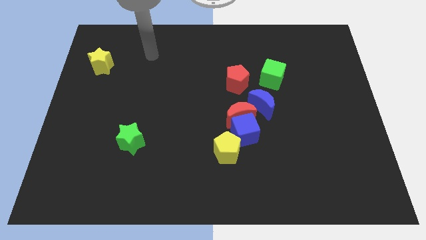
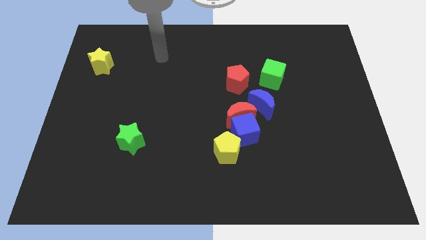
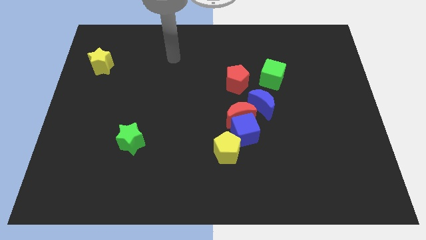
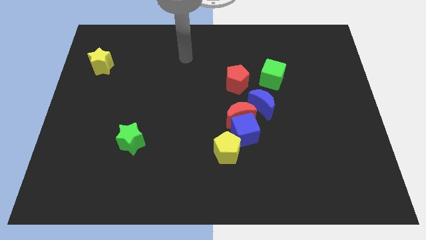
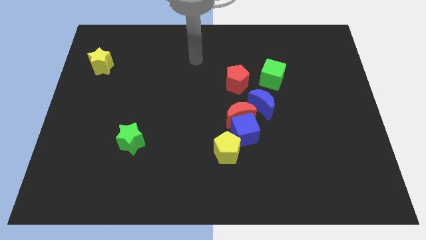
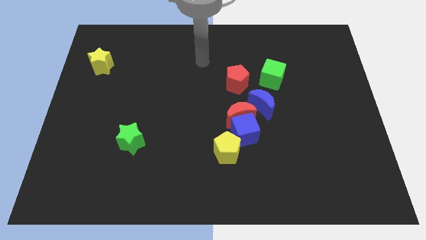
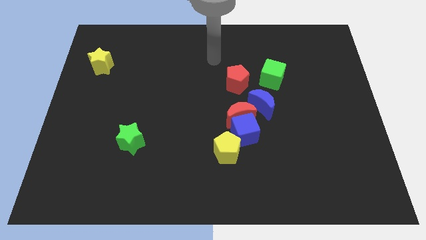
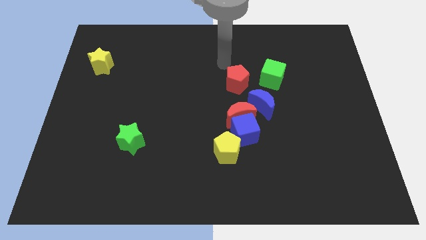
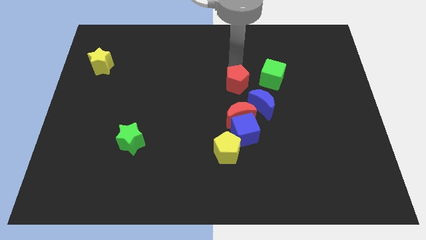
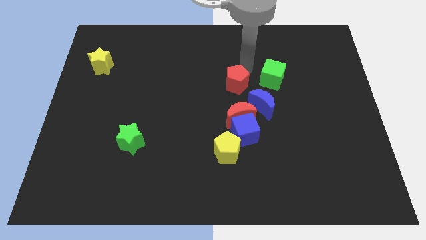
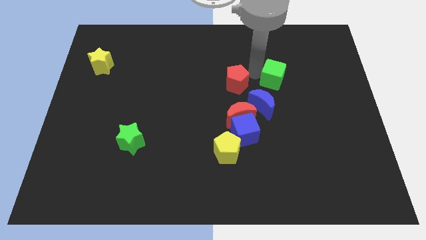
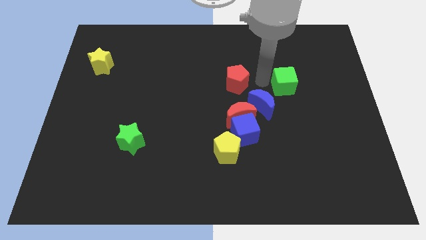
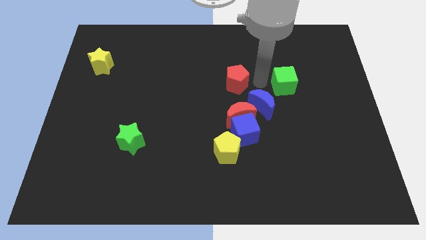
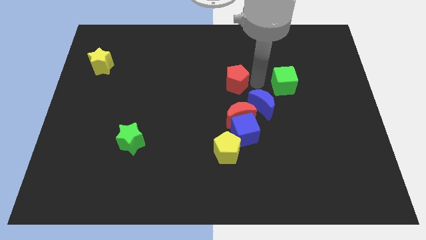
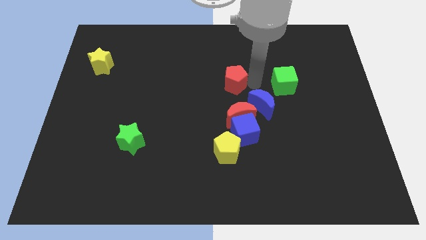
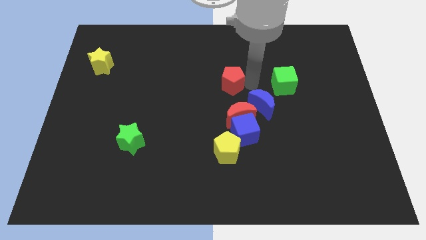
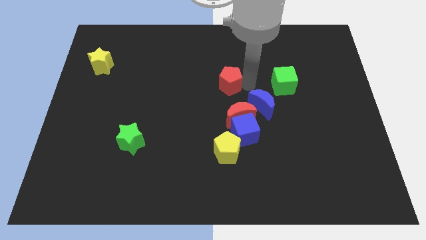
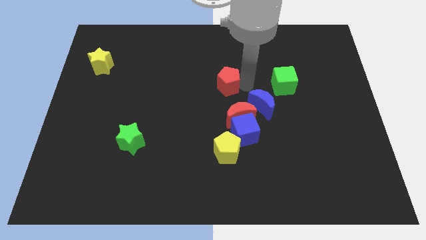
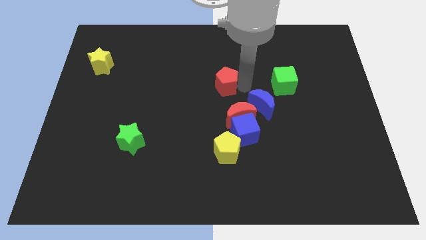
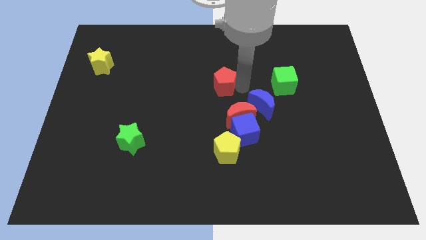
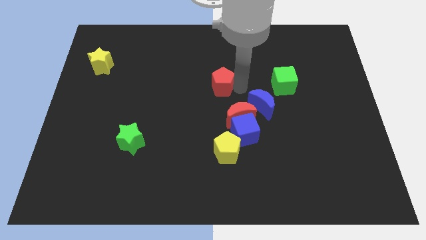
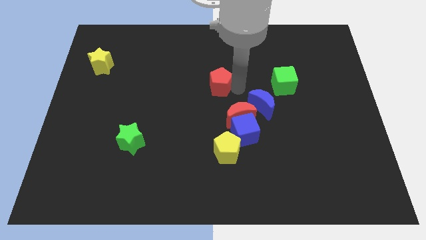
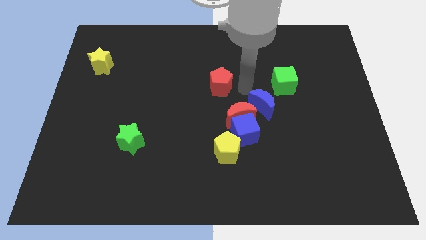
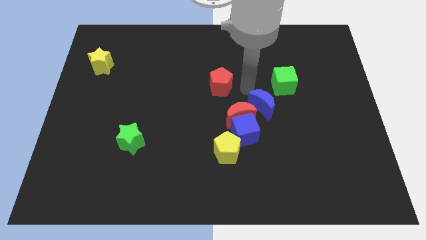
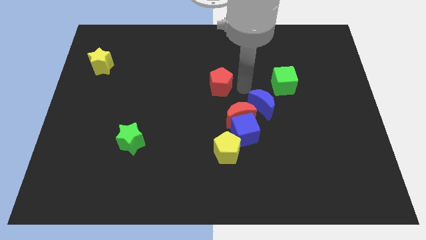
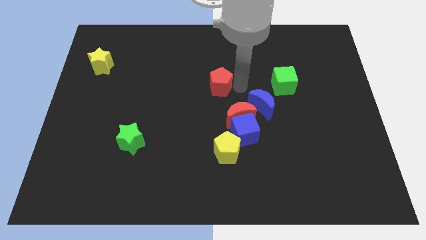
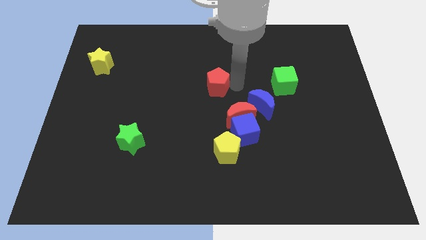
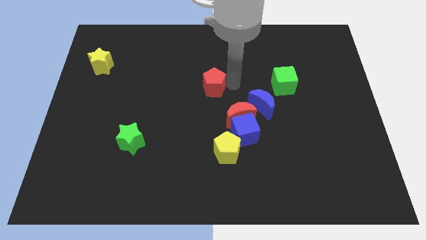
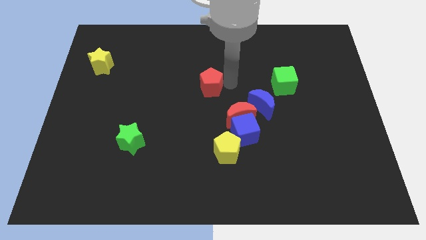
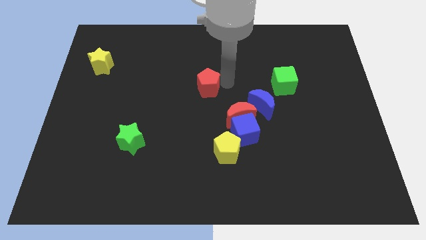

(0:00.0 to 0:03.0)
push the red pentagon a little bit to the left

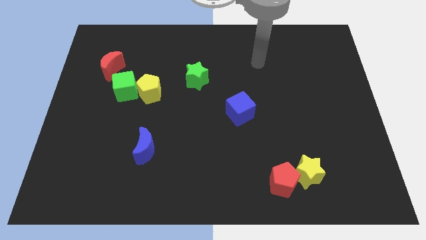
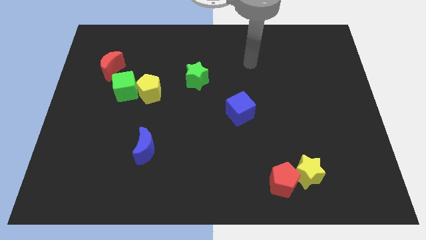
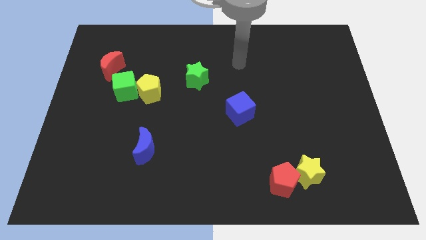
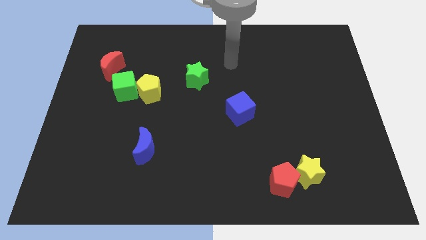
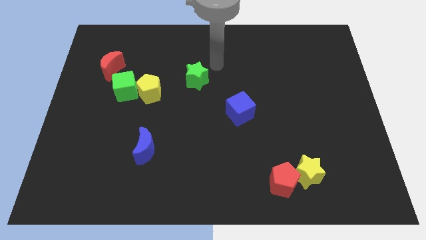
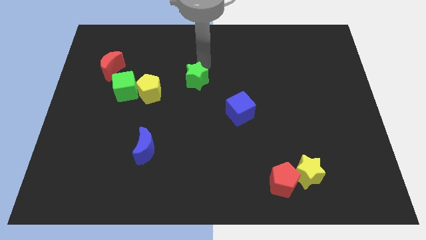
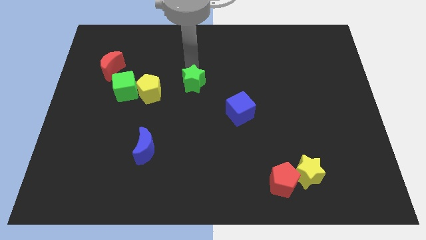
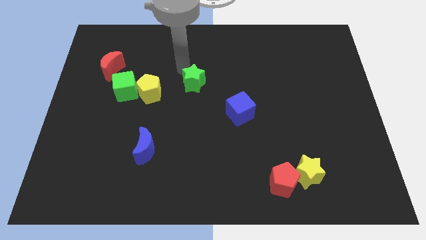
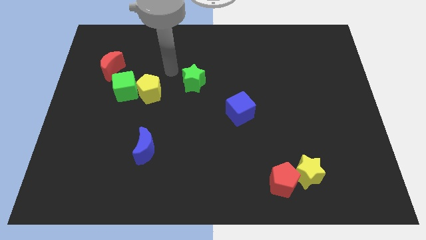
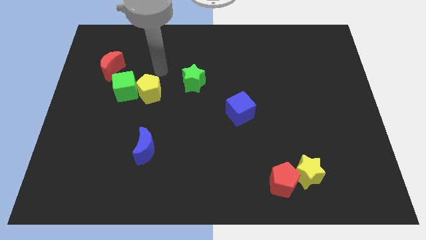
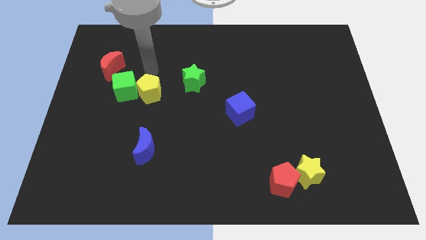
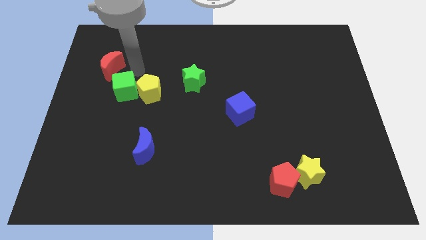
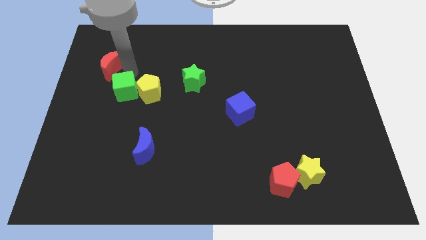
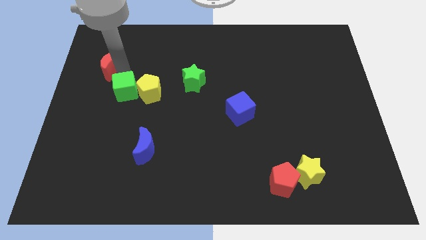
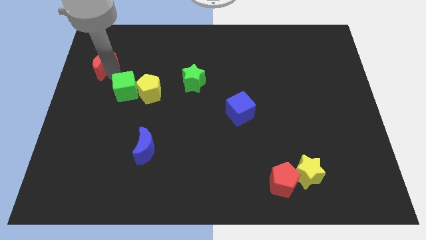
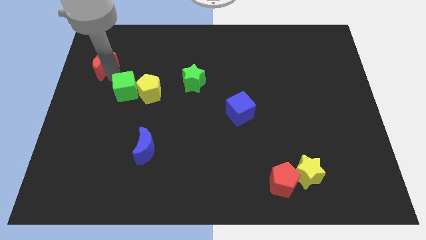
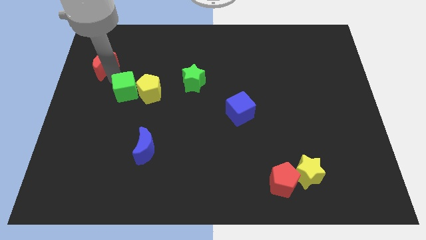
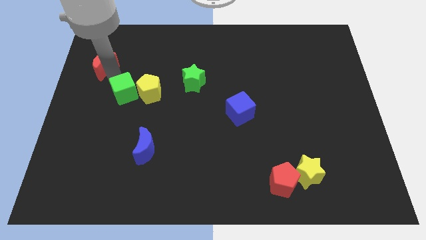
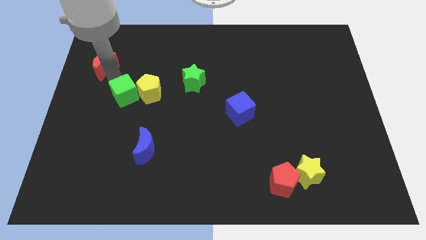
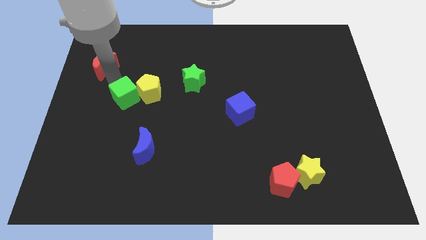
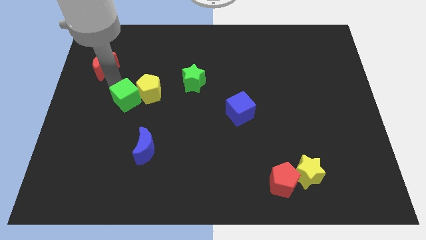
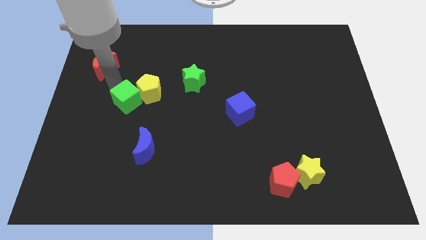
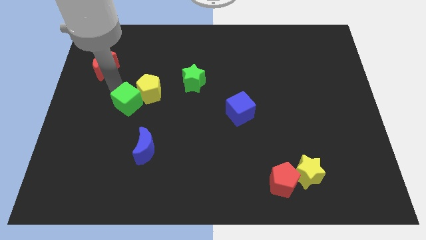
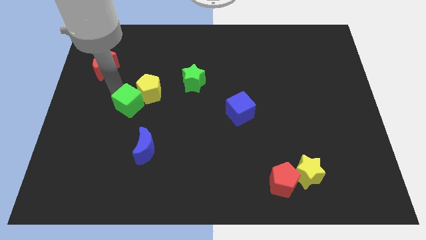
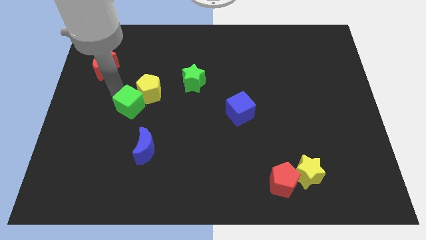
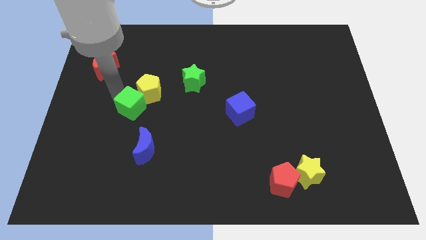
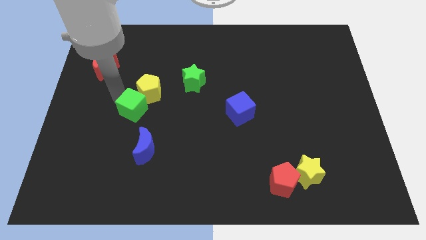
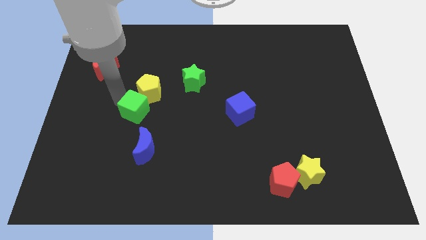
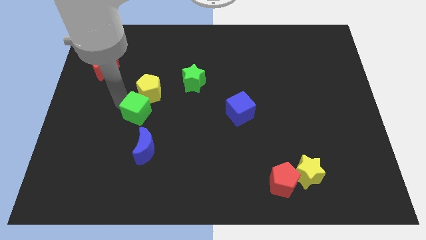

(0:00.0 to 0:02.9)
slide the green cube a bit down and then to the right

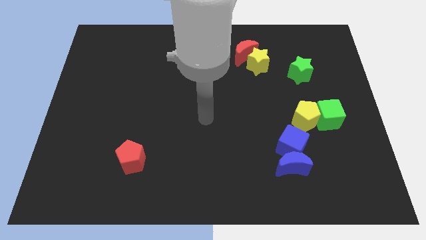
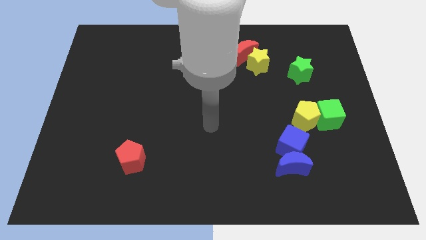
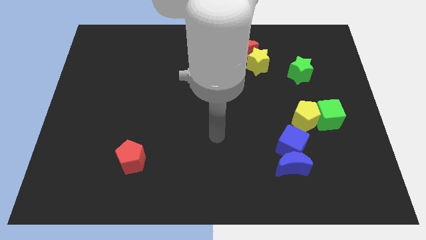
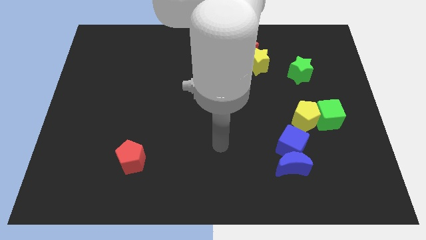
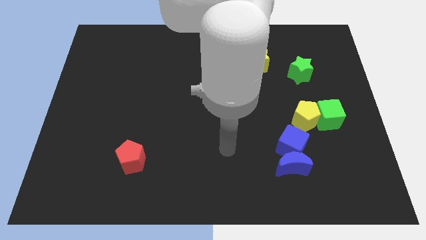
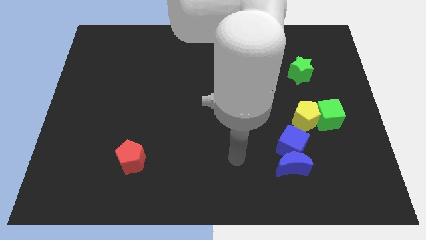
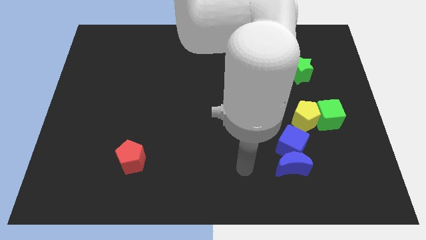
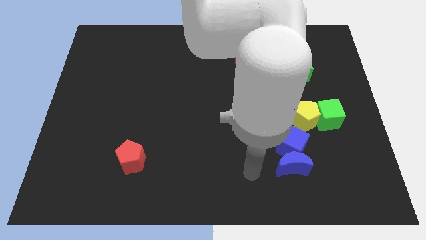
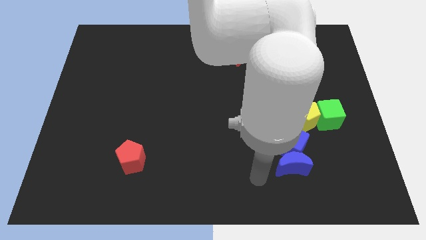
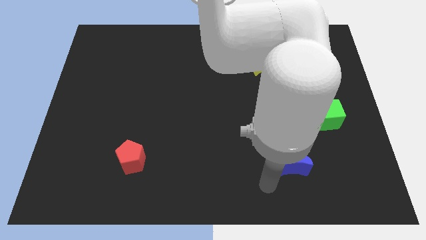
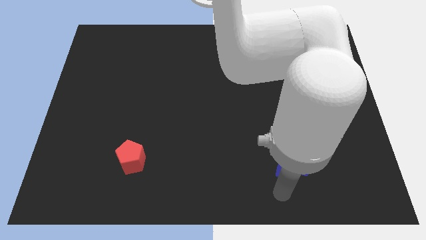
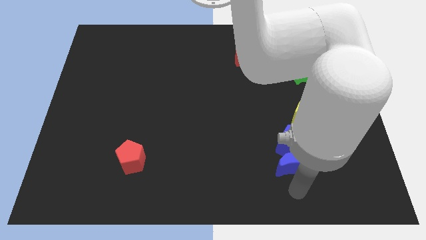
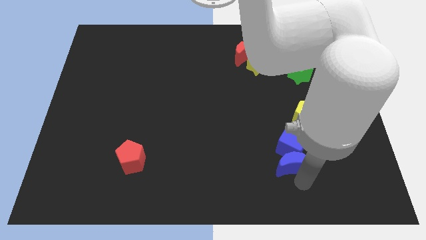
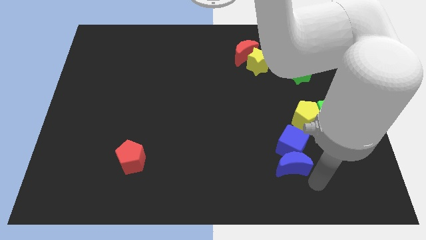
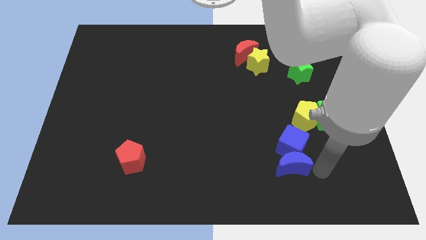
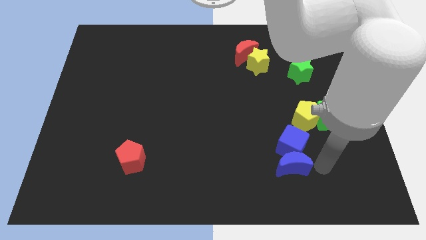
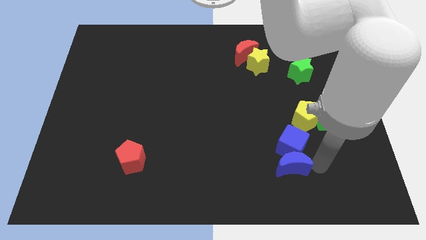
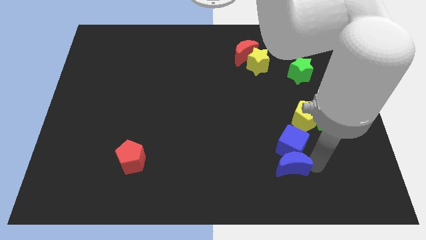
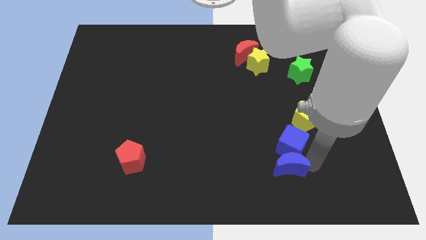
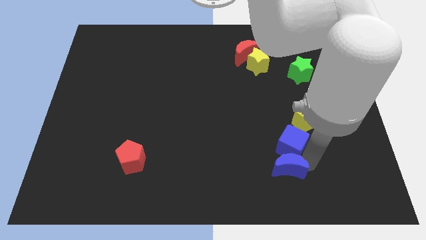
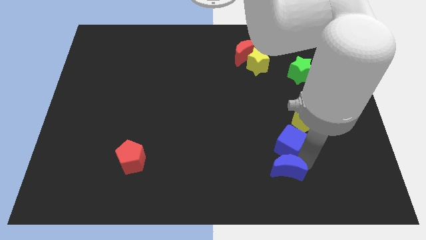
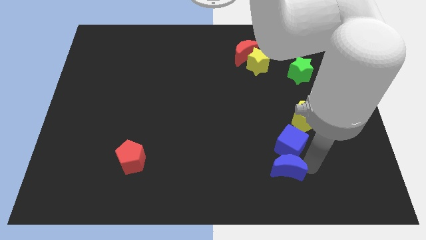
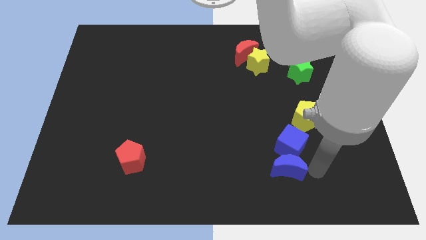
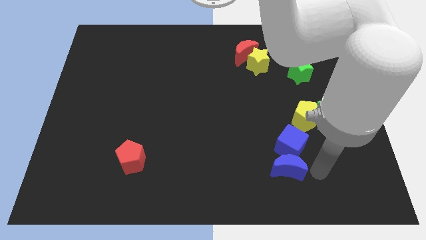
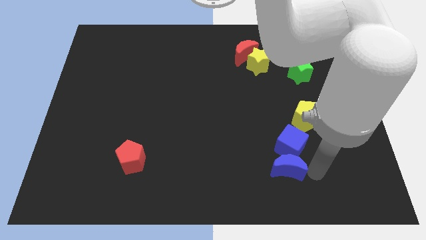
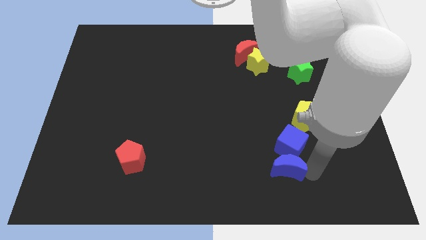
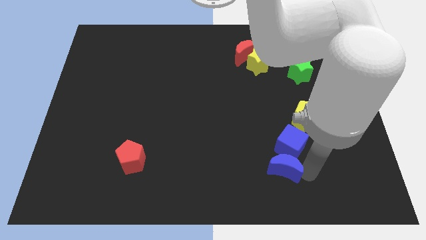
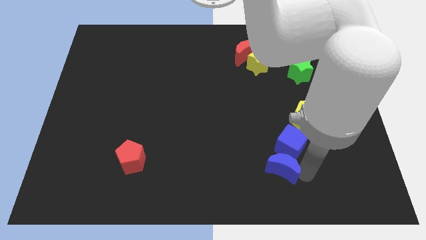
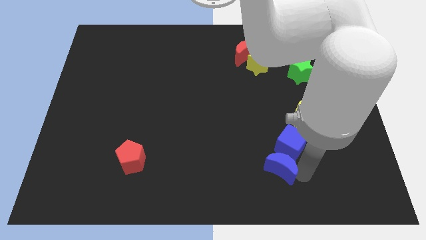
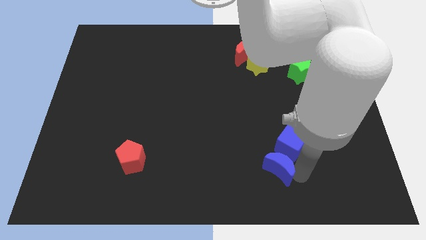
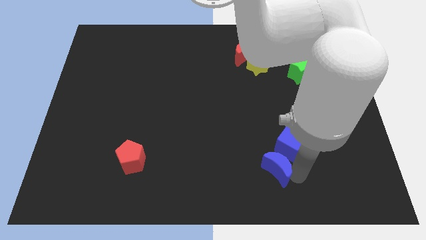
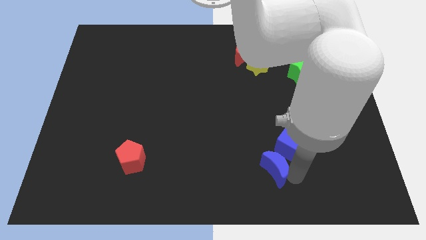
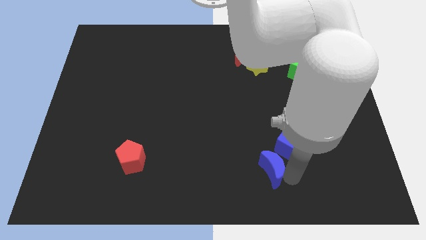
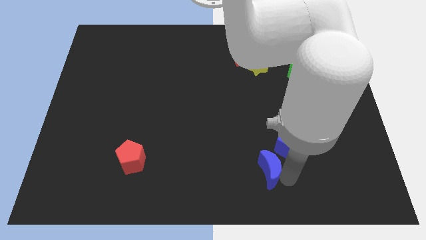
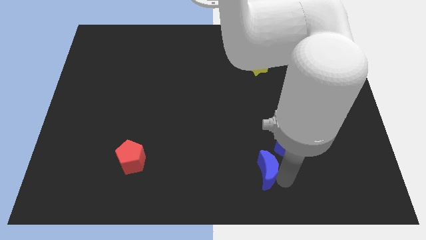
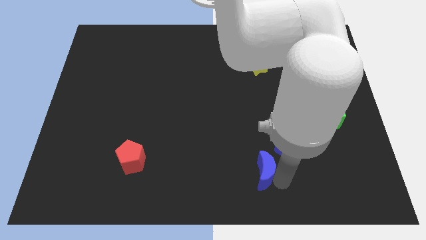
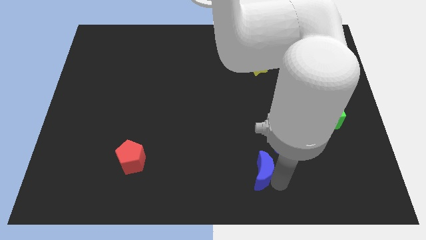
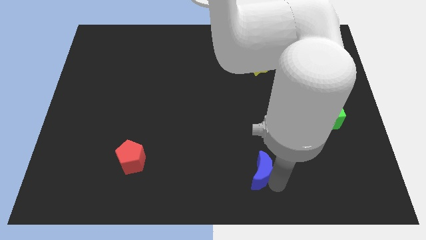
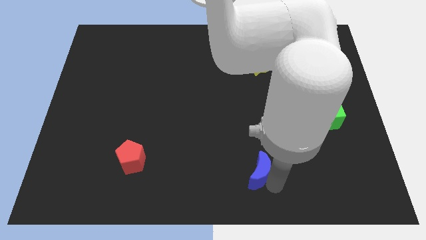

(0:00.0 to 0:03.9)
push the blue moon a little left
